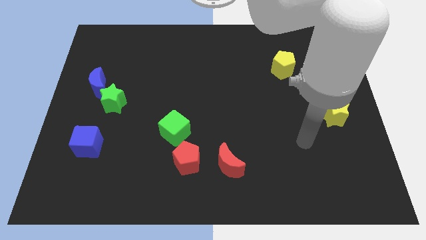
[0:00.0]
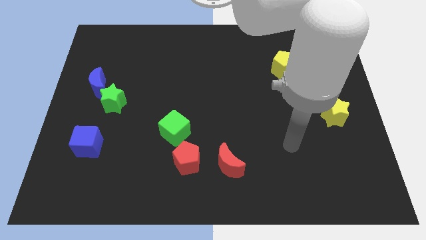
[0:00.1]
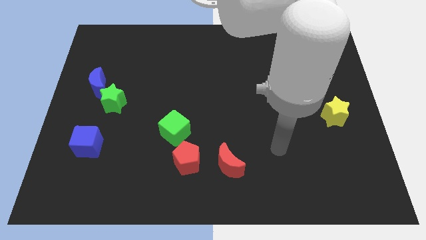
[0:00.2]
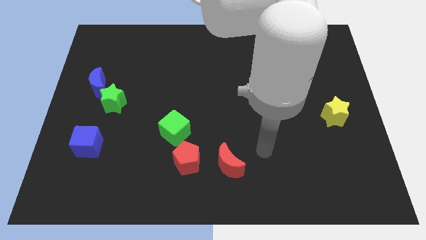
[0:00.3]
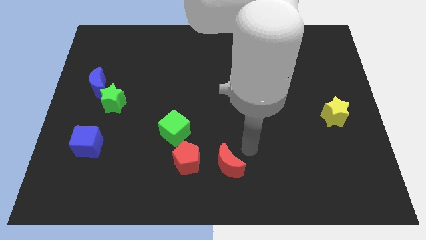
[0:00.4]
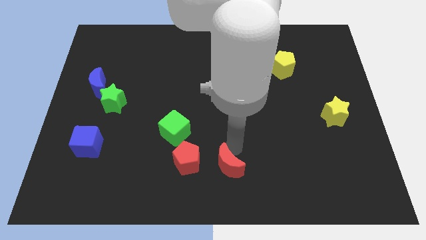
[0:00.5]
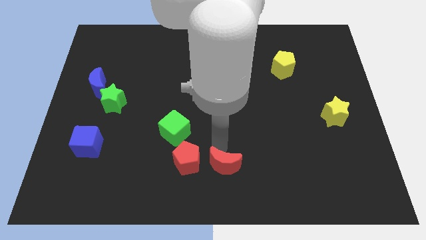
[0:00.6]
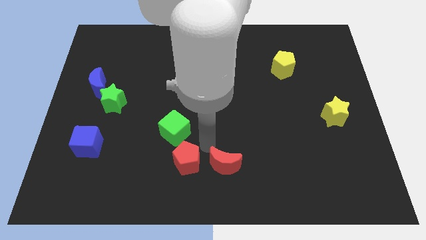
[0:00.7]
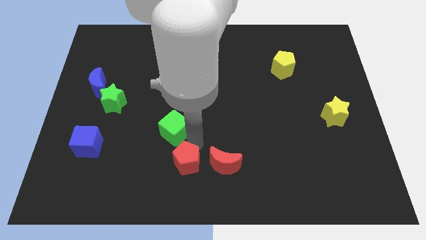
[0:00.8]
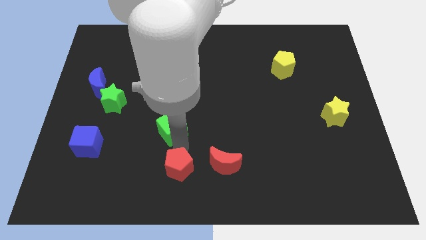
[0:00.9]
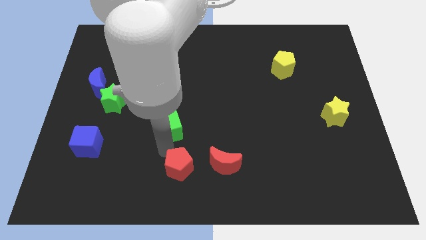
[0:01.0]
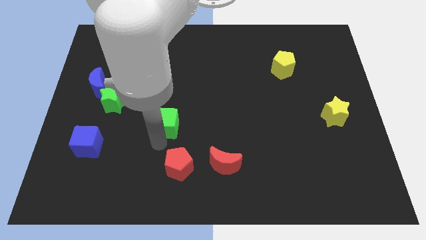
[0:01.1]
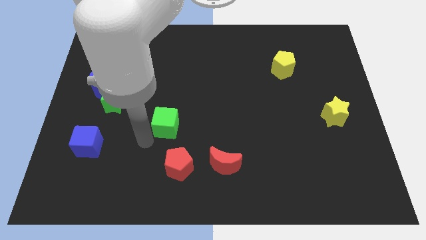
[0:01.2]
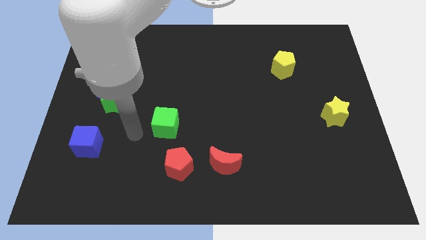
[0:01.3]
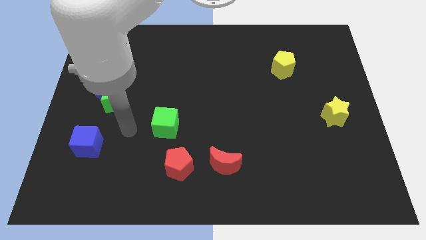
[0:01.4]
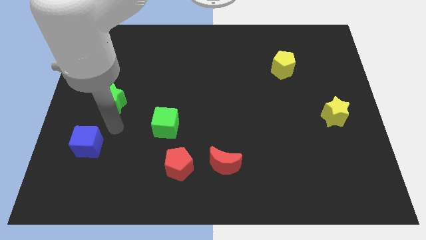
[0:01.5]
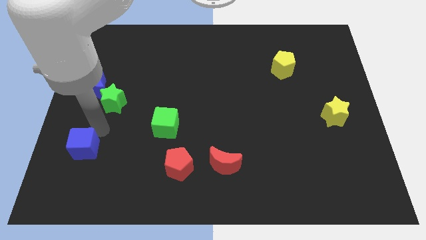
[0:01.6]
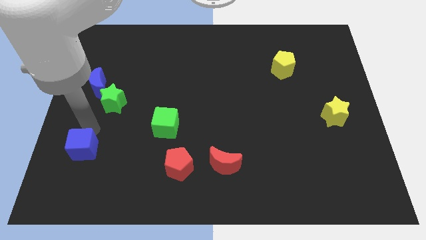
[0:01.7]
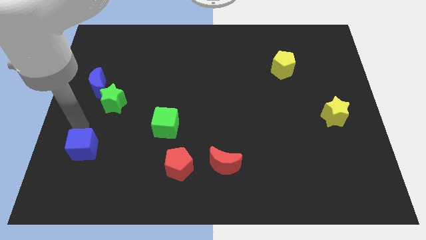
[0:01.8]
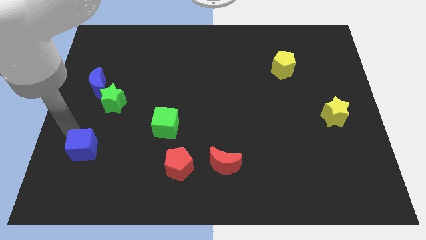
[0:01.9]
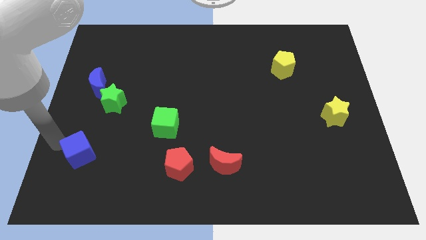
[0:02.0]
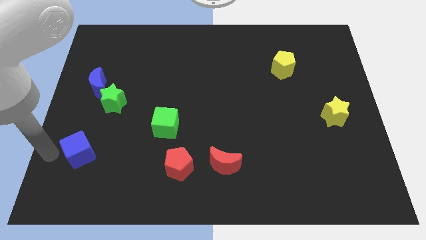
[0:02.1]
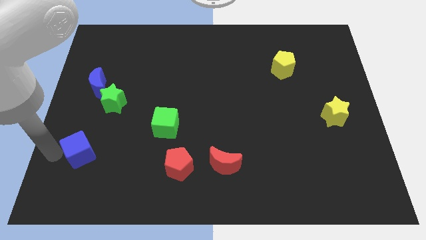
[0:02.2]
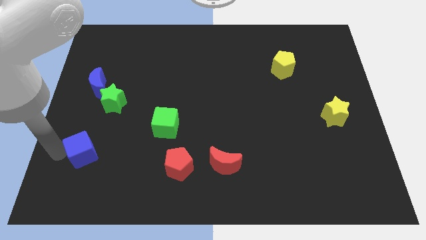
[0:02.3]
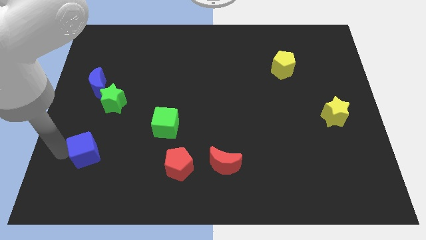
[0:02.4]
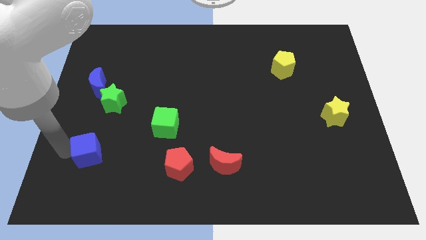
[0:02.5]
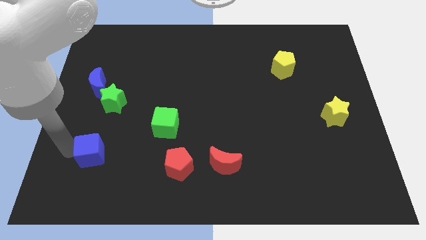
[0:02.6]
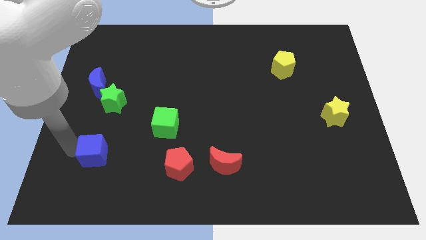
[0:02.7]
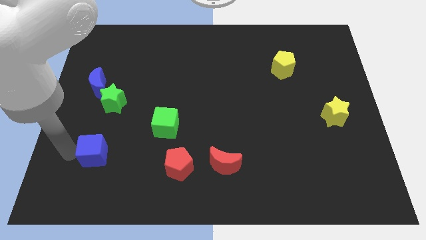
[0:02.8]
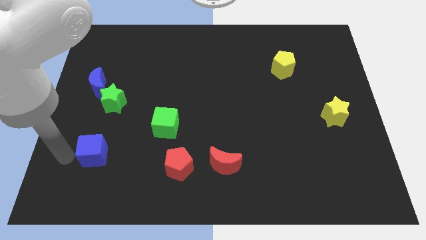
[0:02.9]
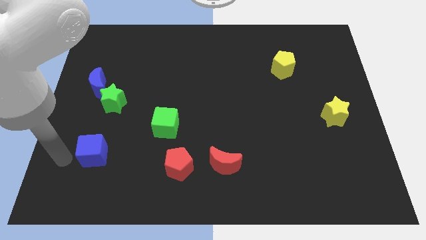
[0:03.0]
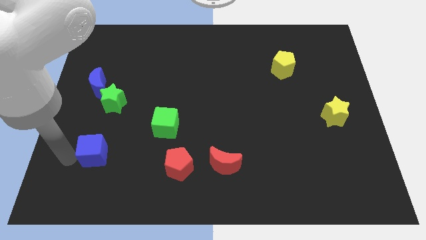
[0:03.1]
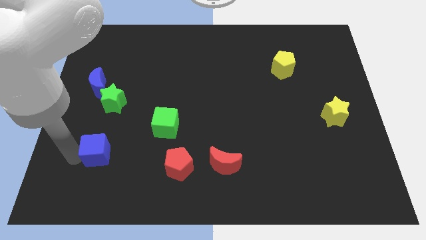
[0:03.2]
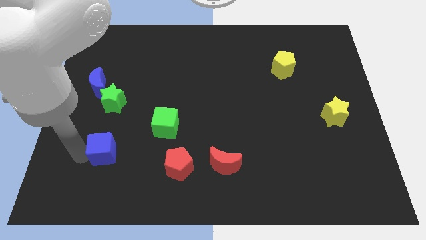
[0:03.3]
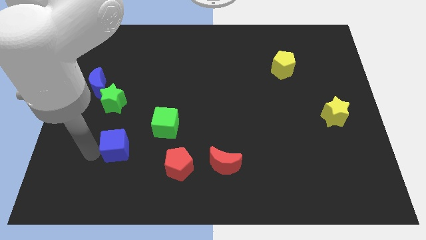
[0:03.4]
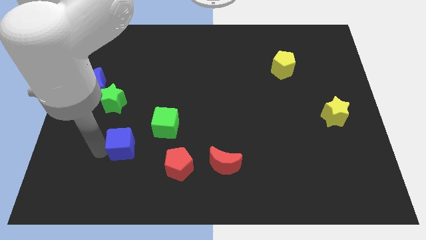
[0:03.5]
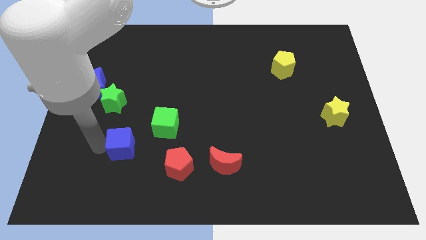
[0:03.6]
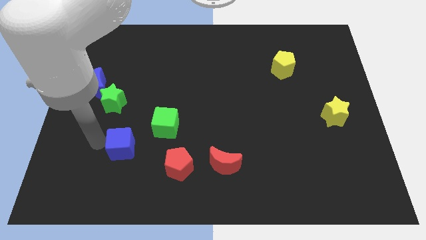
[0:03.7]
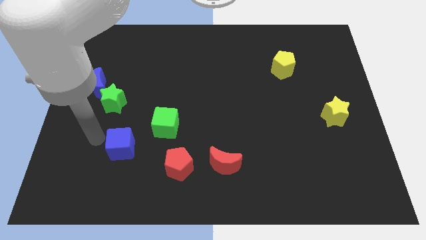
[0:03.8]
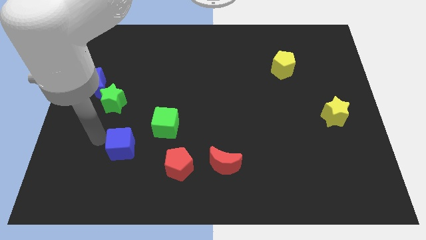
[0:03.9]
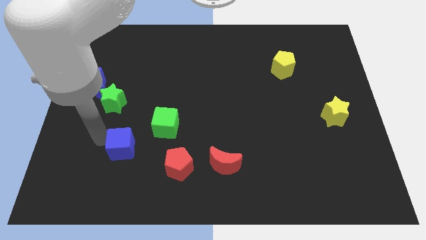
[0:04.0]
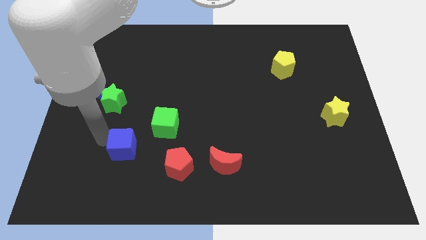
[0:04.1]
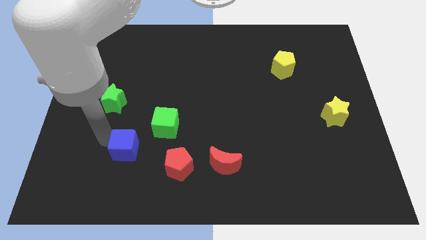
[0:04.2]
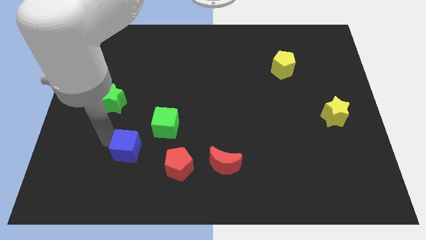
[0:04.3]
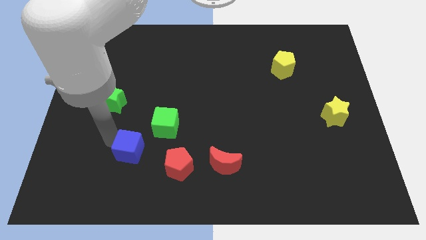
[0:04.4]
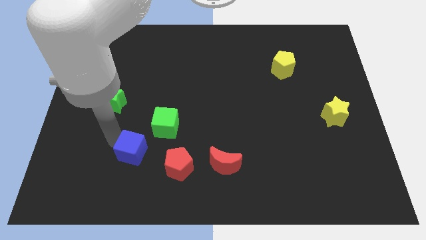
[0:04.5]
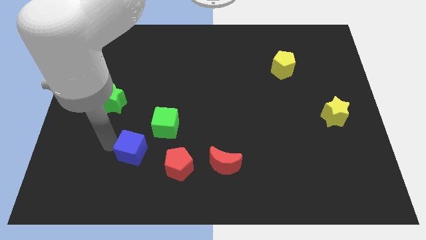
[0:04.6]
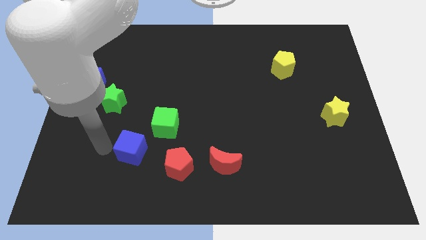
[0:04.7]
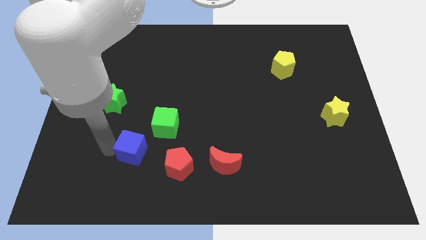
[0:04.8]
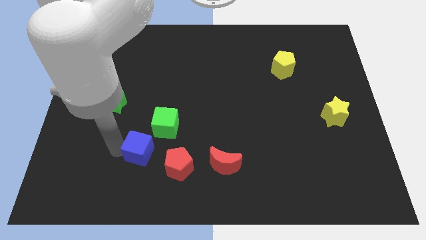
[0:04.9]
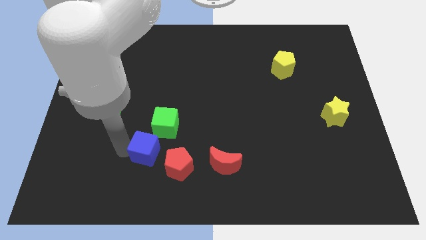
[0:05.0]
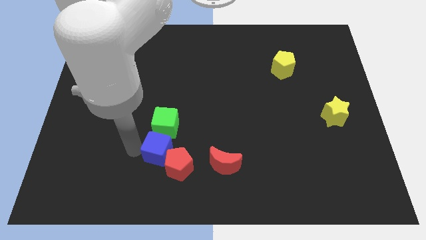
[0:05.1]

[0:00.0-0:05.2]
slide the blue cube towards the red pentagon

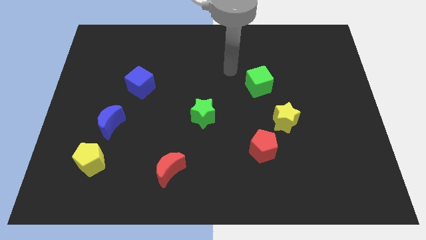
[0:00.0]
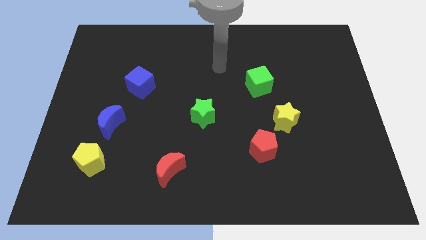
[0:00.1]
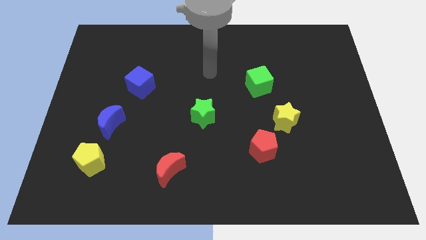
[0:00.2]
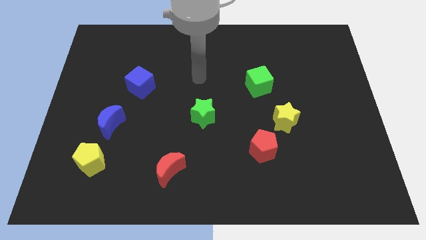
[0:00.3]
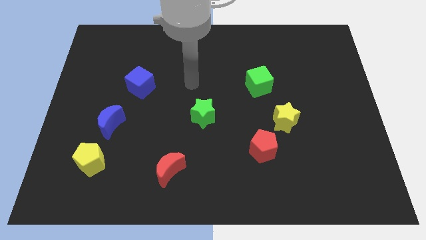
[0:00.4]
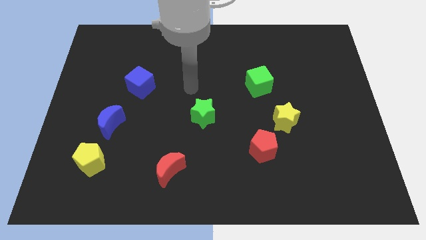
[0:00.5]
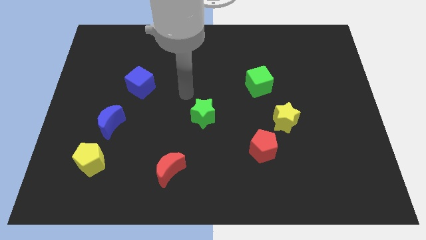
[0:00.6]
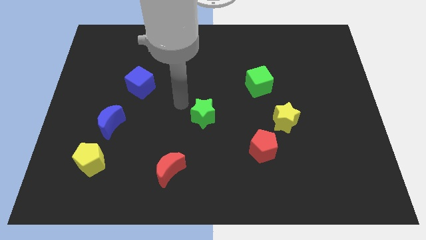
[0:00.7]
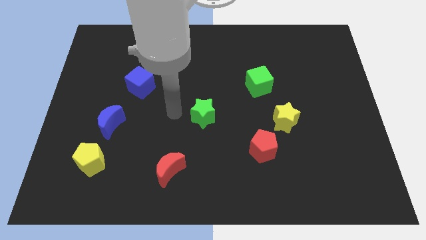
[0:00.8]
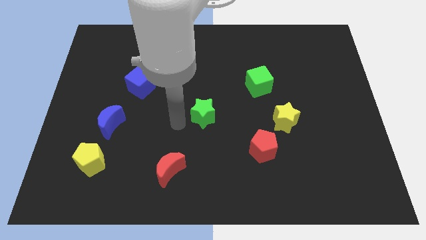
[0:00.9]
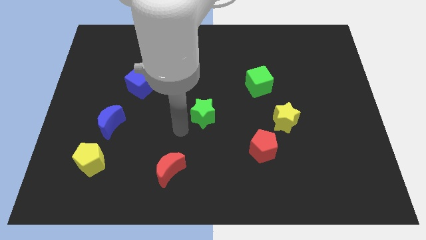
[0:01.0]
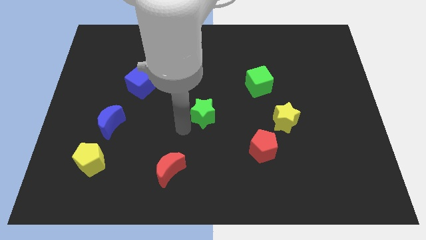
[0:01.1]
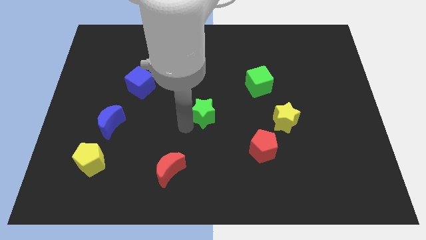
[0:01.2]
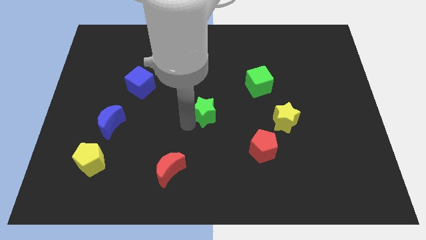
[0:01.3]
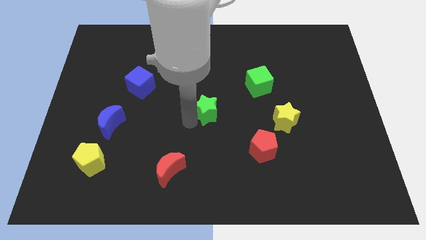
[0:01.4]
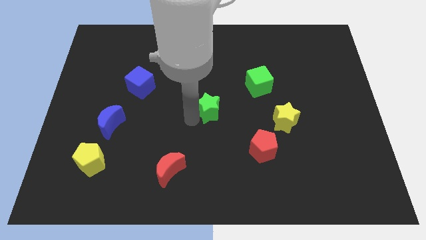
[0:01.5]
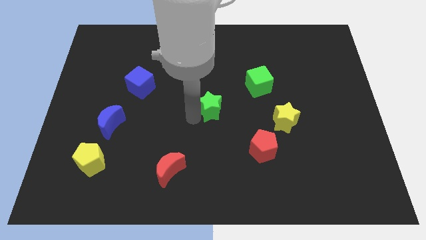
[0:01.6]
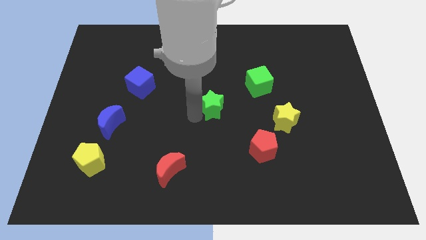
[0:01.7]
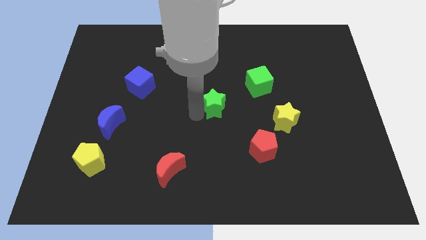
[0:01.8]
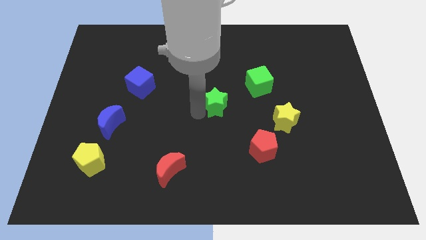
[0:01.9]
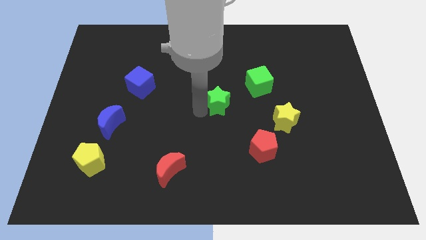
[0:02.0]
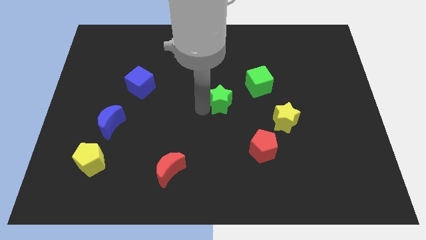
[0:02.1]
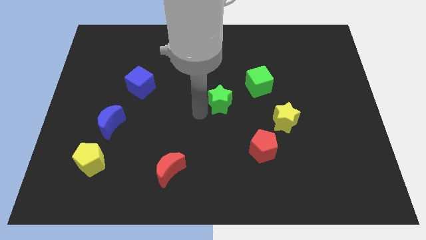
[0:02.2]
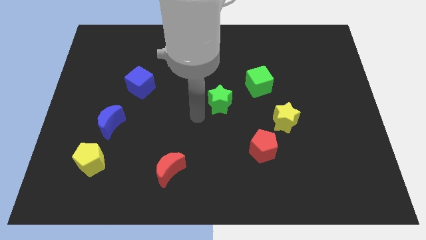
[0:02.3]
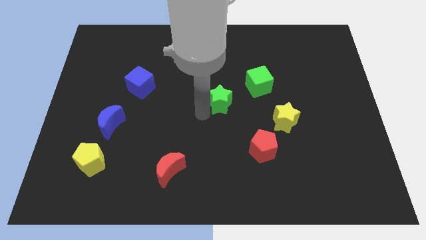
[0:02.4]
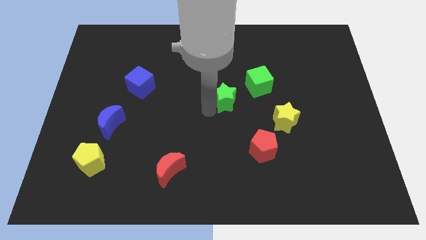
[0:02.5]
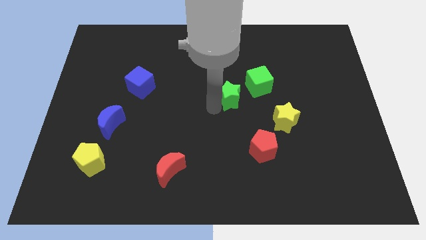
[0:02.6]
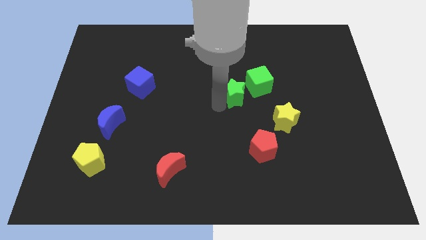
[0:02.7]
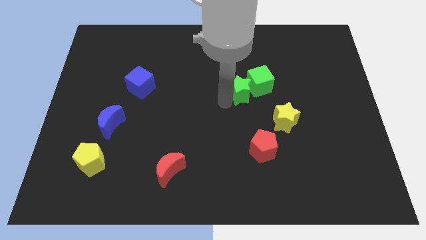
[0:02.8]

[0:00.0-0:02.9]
move the green star towards the green cube
